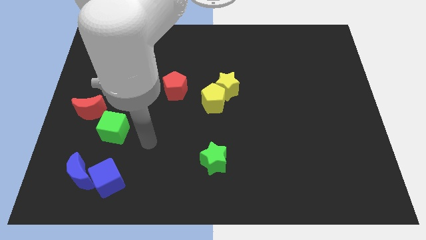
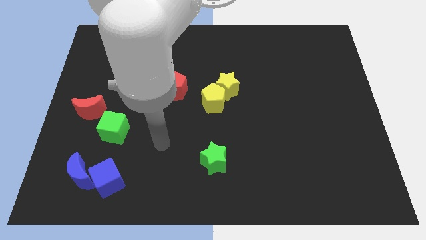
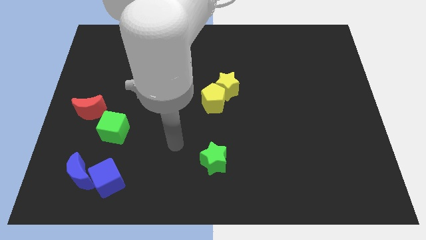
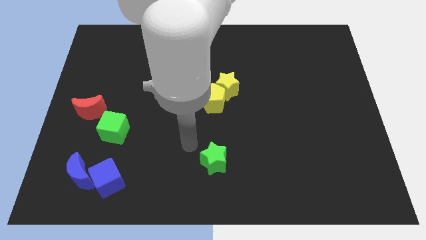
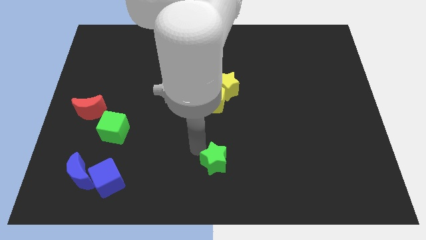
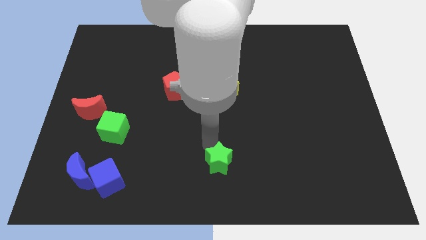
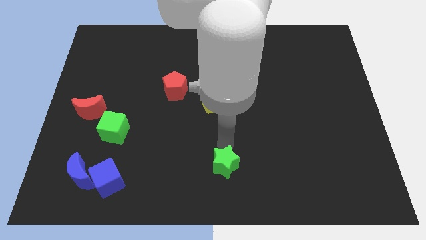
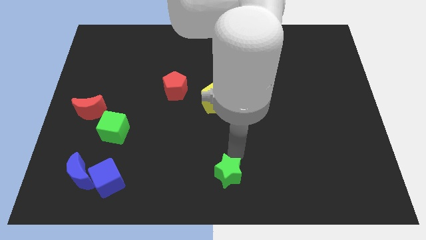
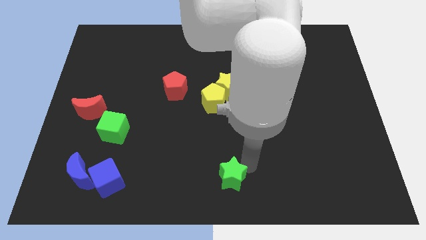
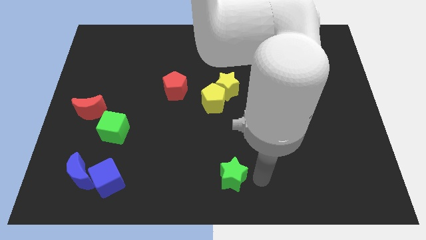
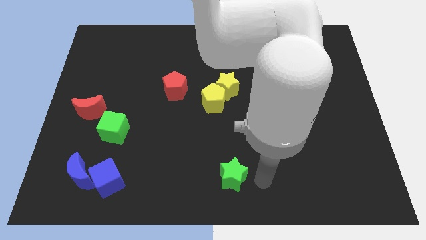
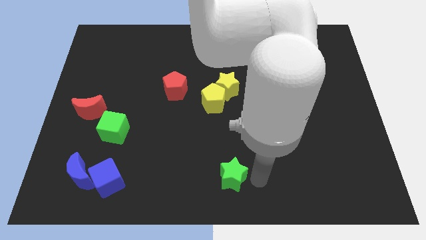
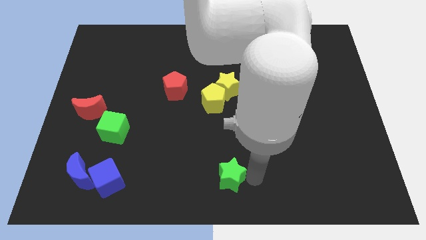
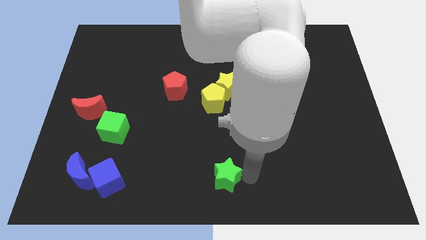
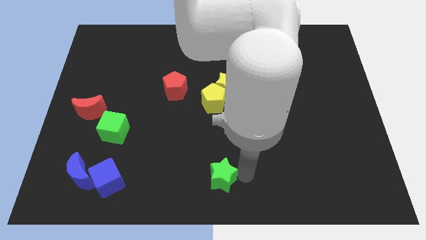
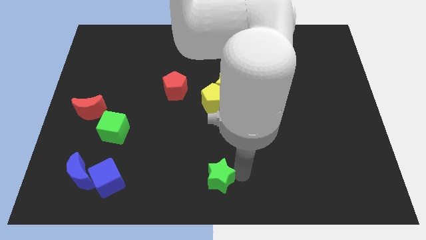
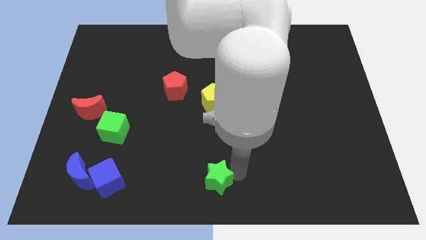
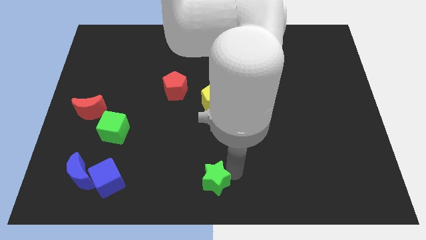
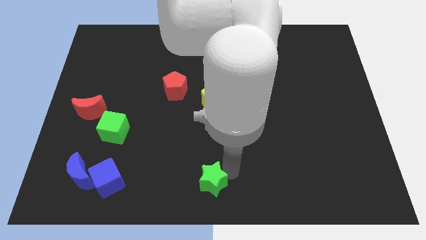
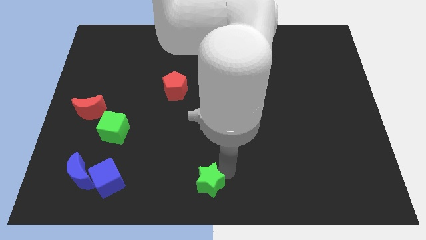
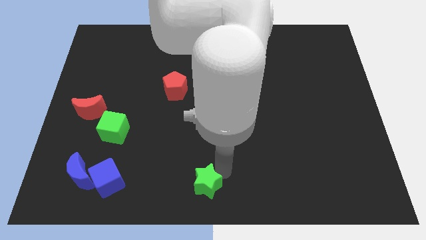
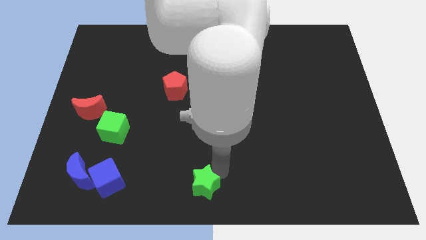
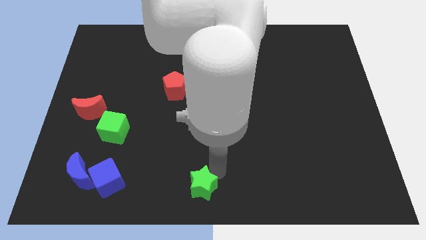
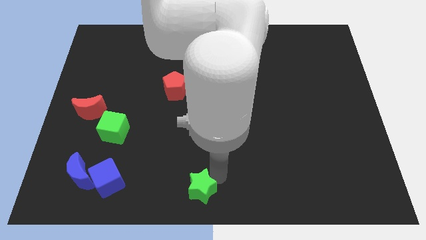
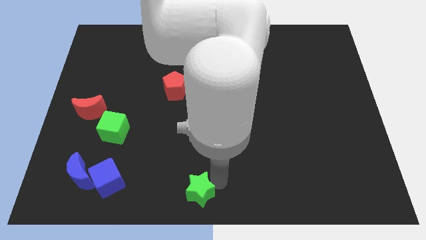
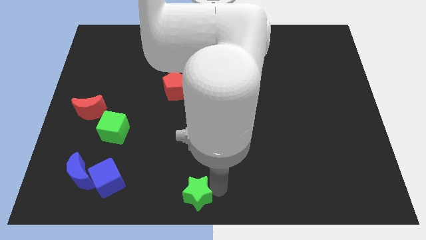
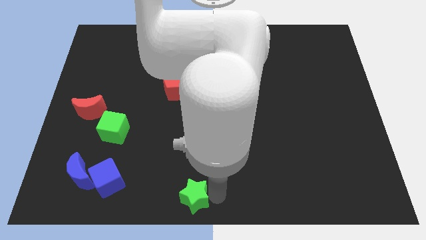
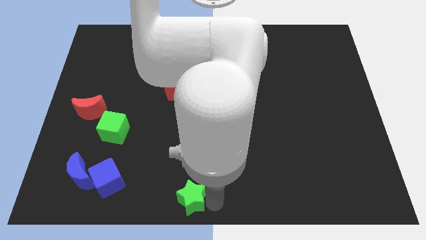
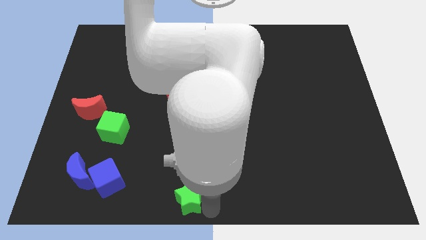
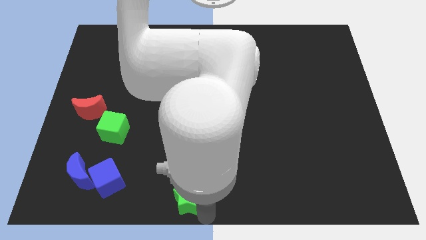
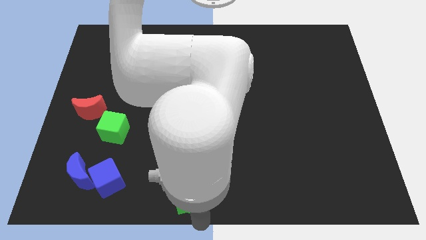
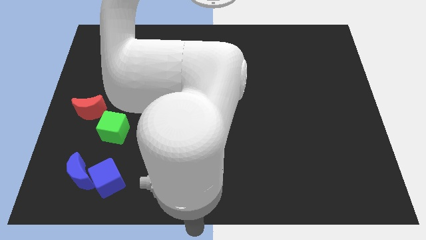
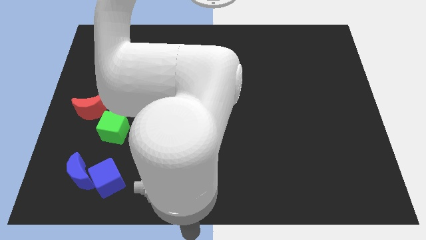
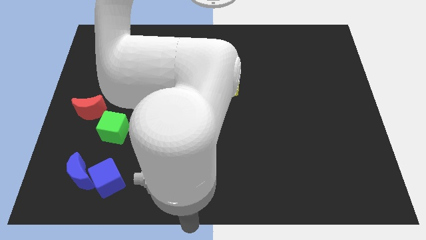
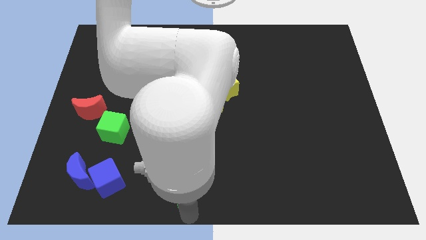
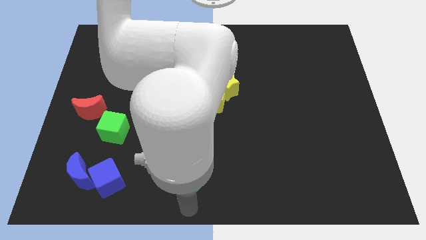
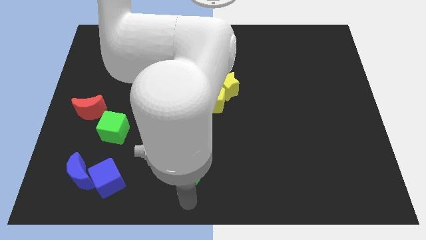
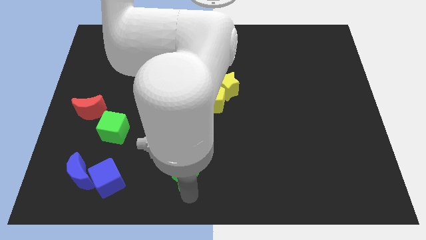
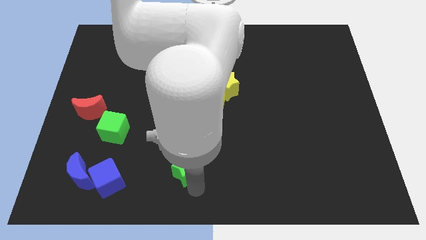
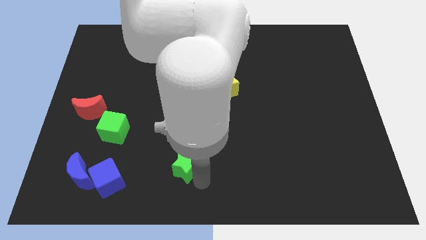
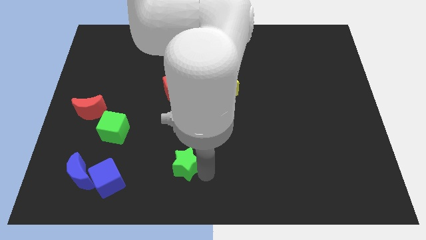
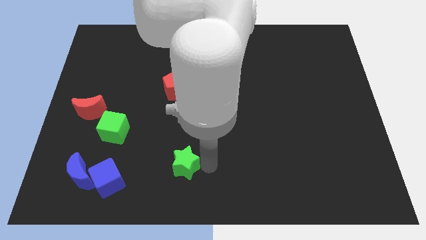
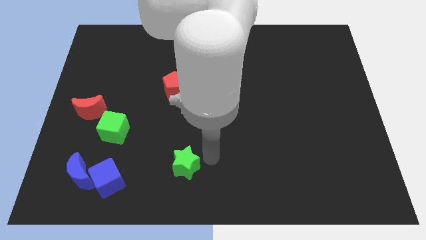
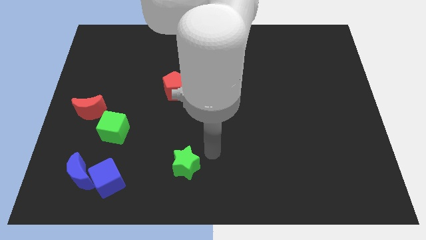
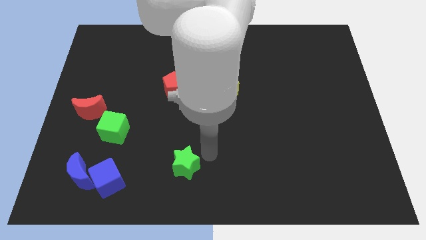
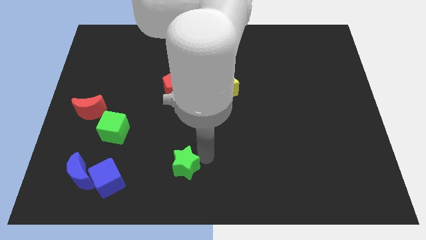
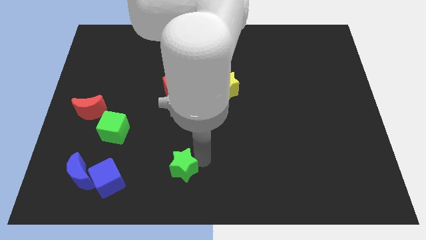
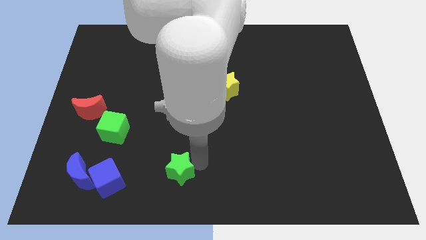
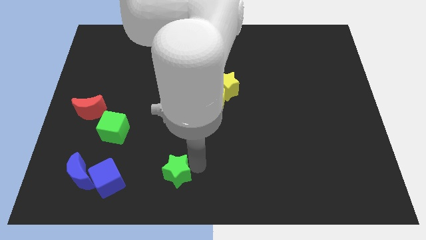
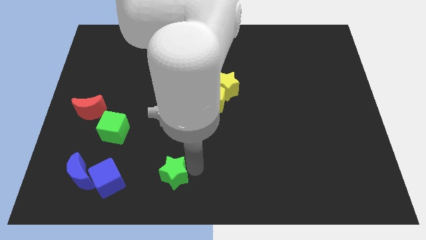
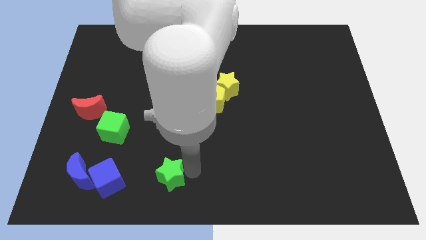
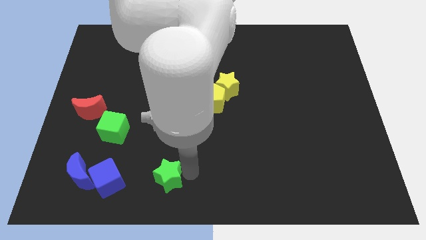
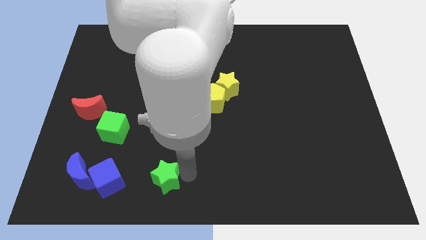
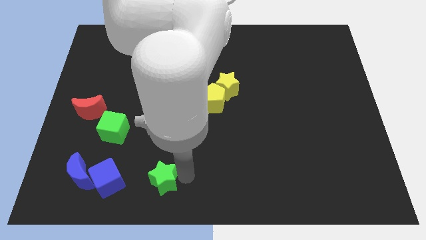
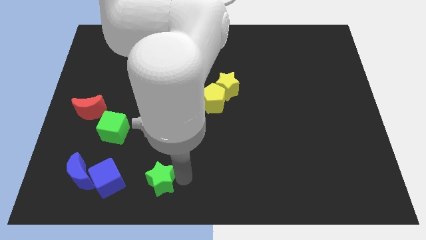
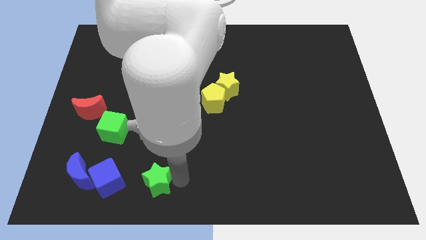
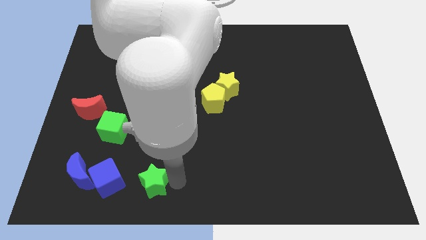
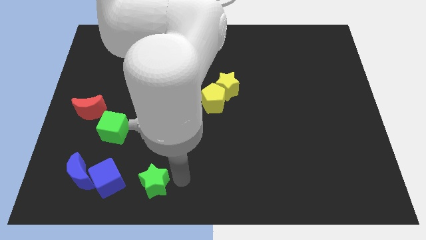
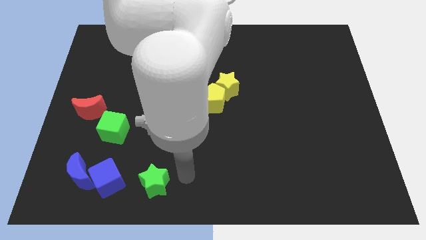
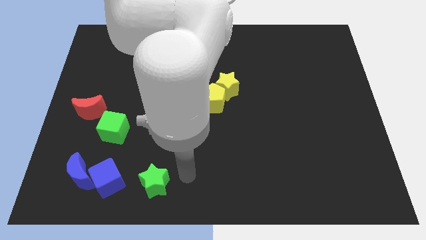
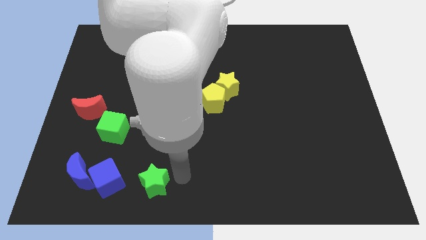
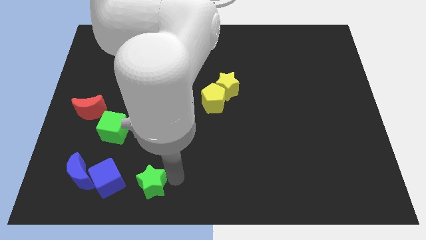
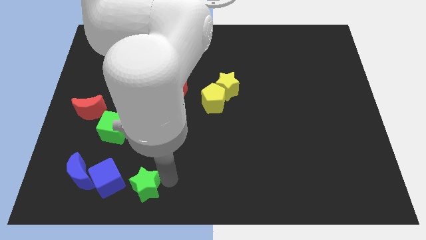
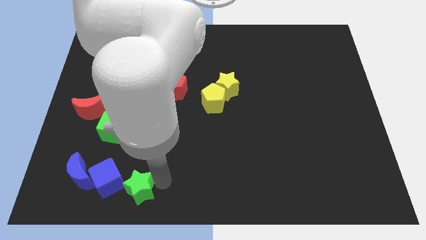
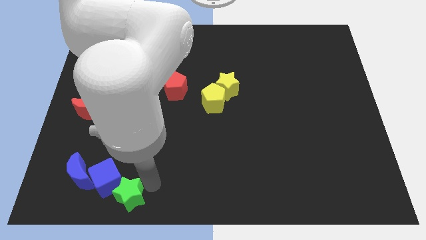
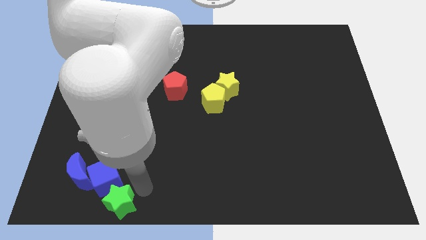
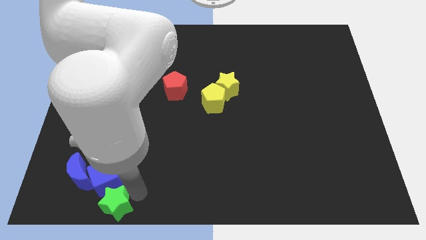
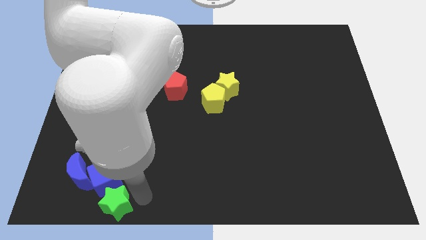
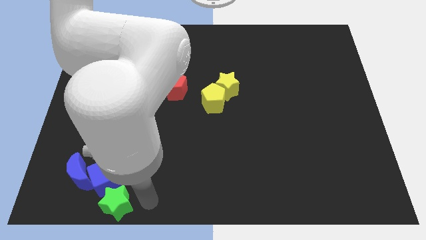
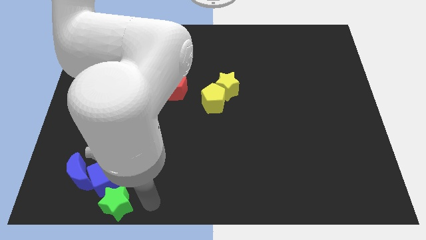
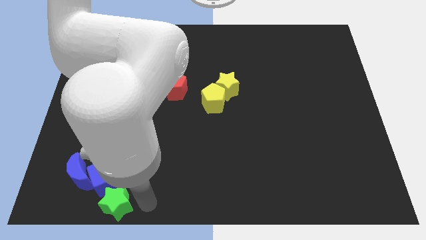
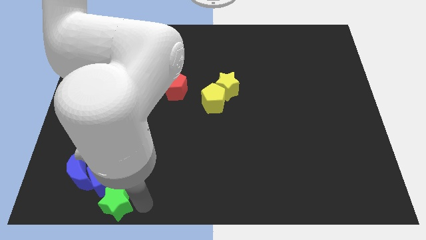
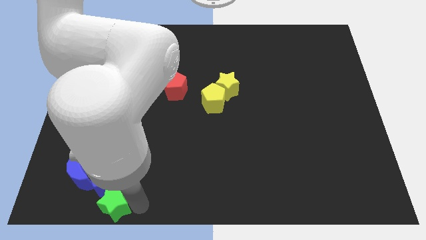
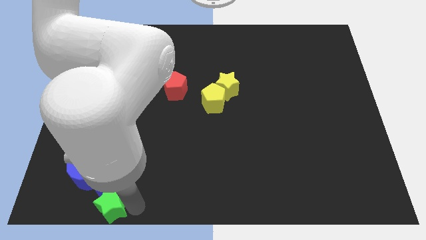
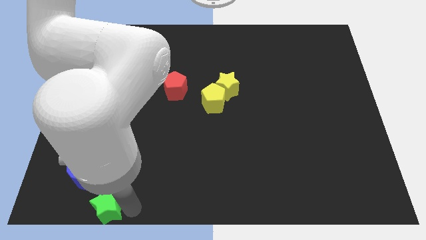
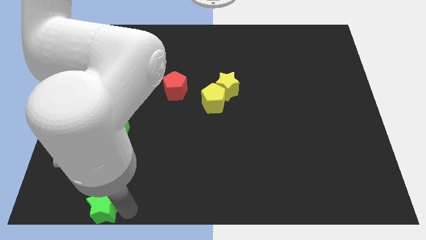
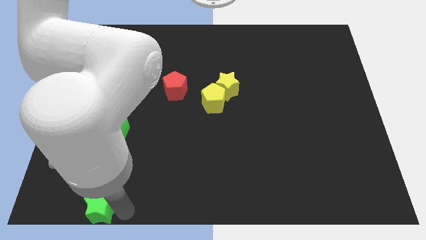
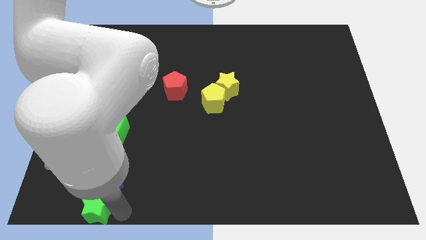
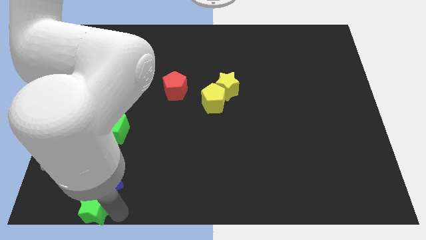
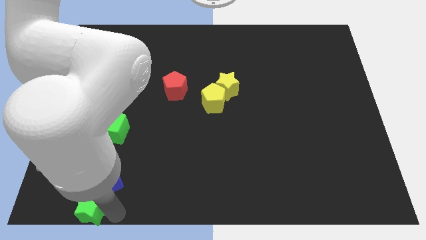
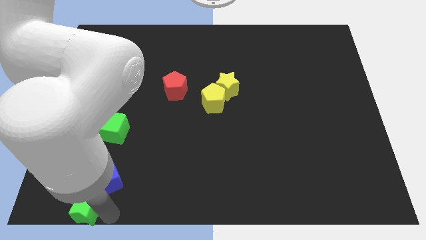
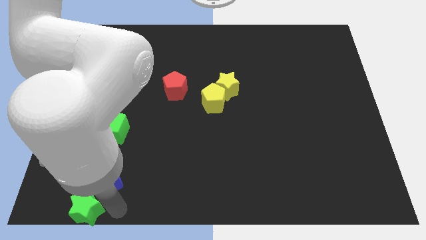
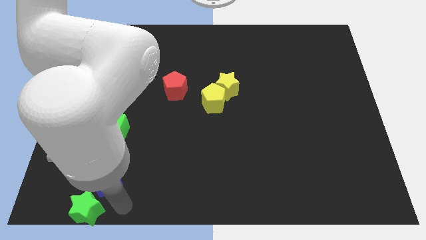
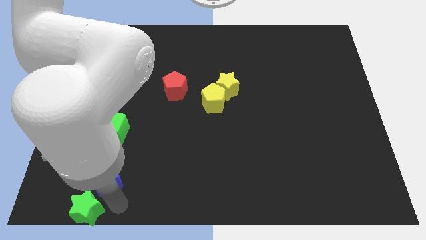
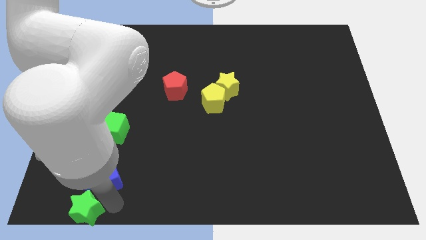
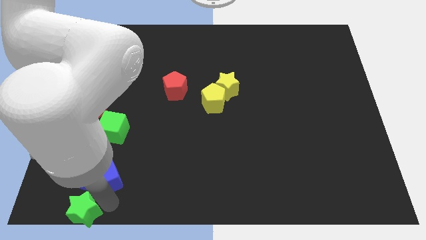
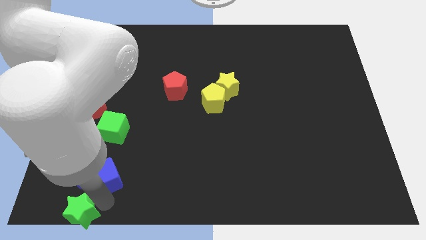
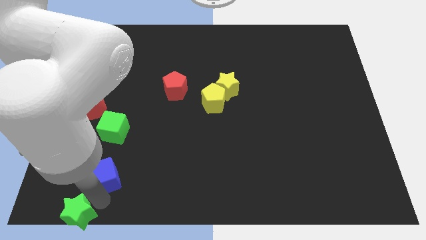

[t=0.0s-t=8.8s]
put the green star to the bottom left

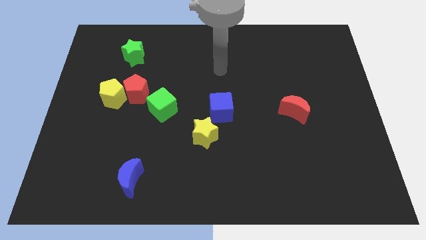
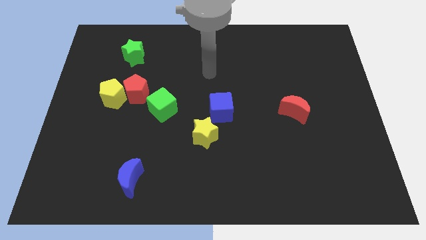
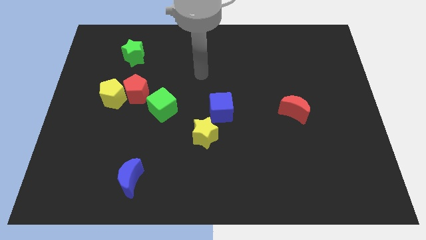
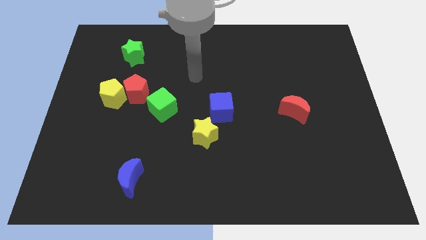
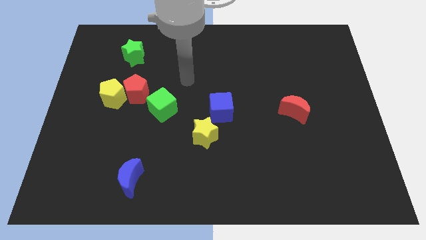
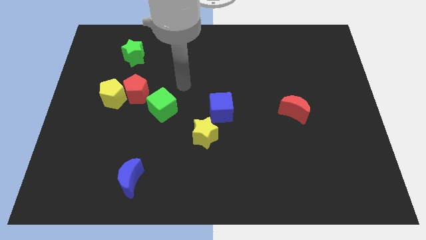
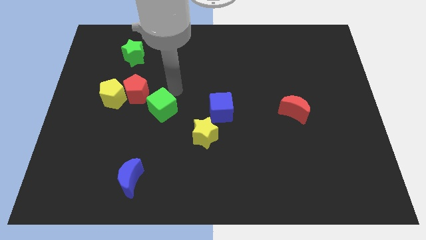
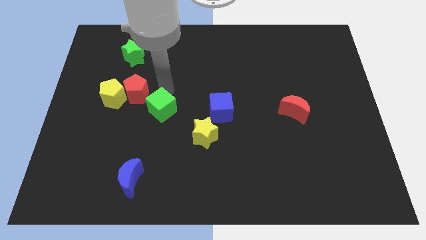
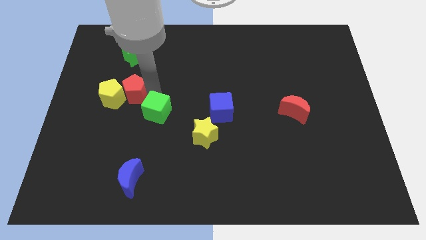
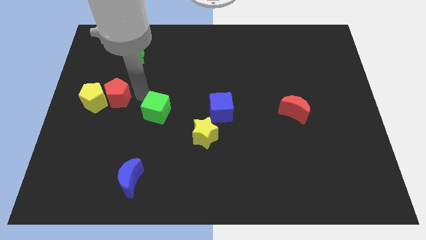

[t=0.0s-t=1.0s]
push the yellow pentagon to the center left
